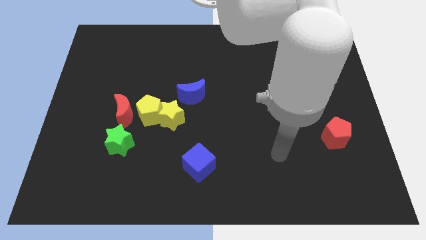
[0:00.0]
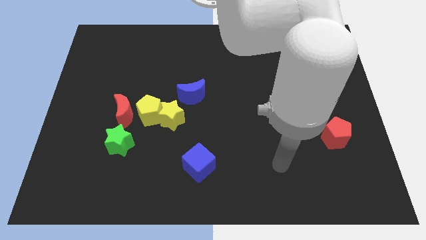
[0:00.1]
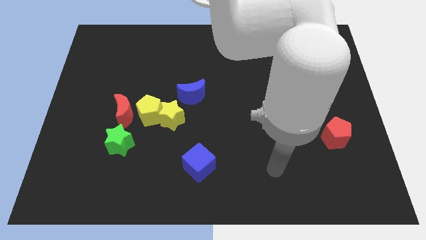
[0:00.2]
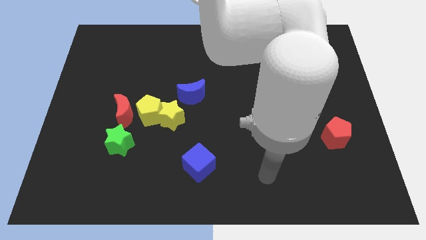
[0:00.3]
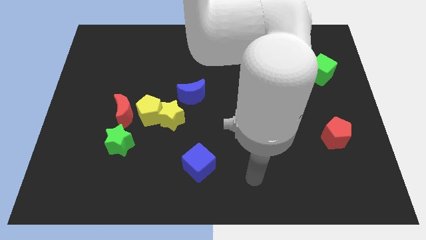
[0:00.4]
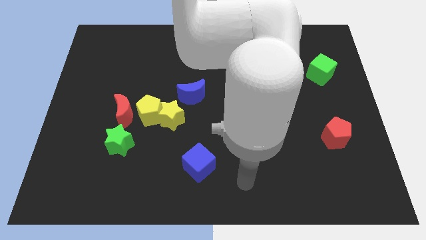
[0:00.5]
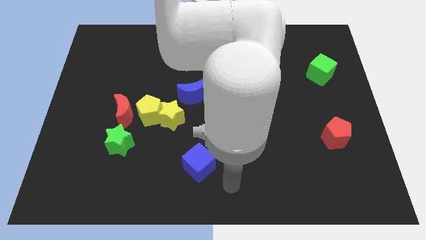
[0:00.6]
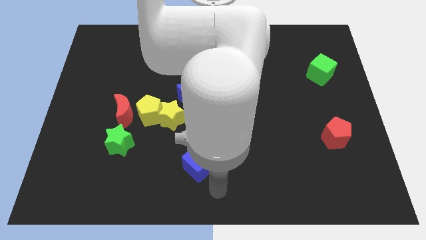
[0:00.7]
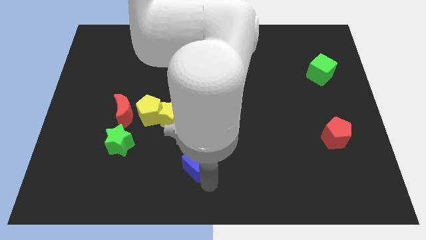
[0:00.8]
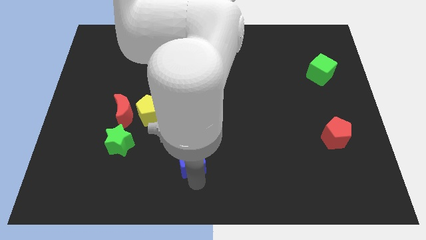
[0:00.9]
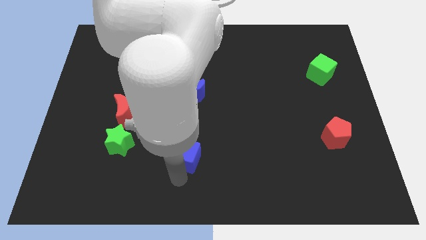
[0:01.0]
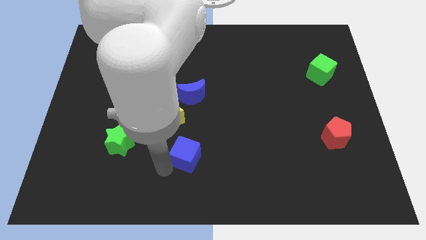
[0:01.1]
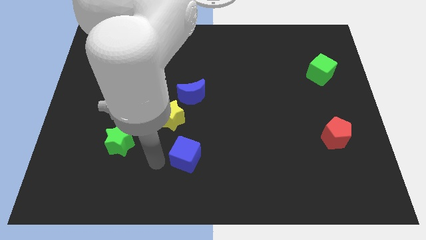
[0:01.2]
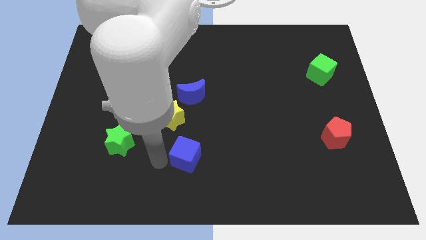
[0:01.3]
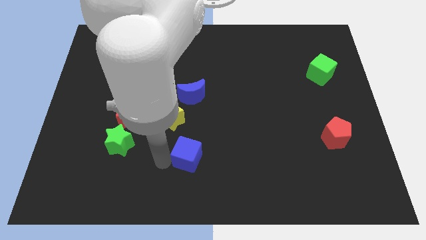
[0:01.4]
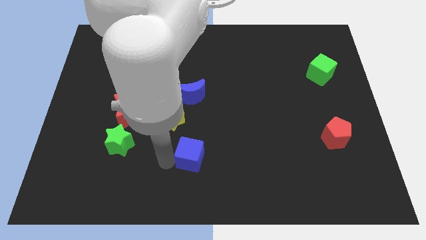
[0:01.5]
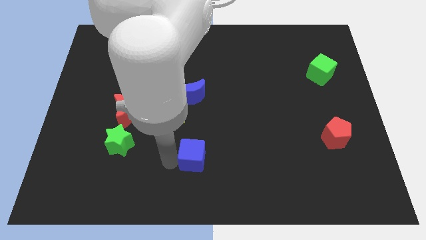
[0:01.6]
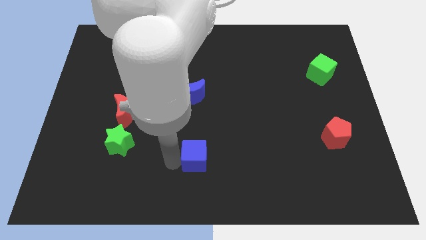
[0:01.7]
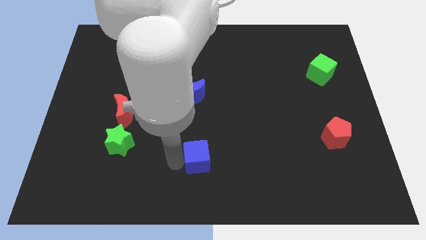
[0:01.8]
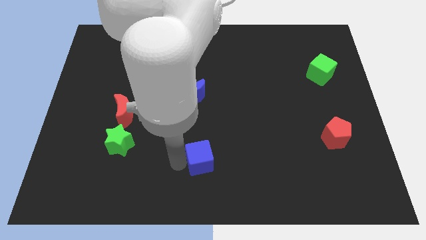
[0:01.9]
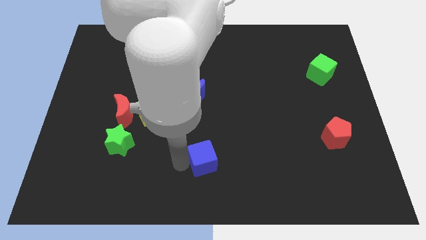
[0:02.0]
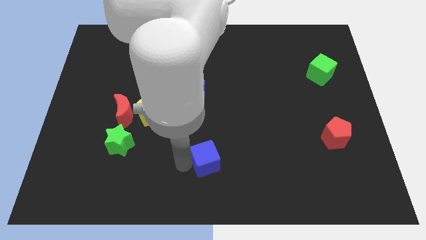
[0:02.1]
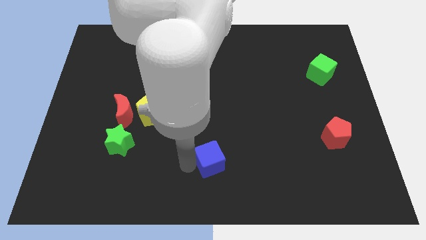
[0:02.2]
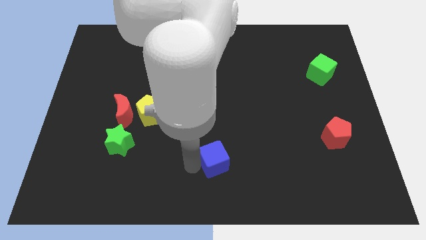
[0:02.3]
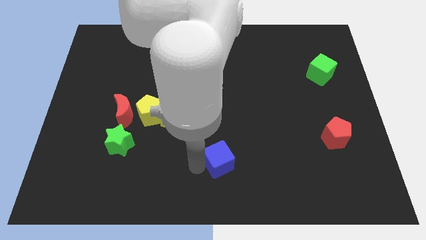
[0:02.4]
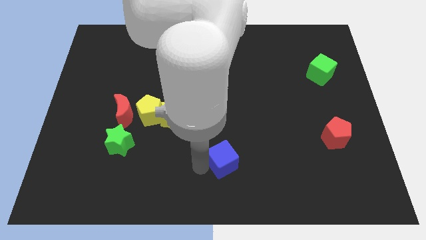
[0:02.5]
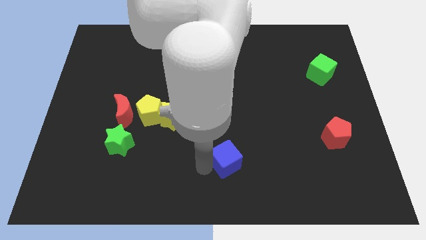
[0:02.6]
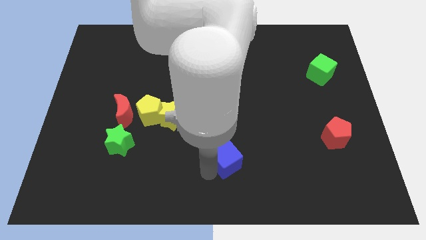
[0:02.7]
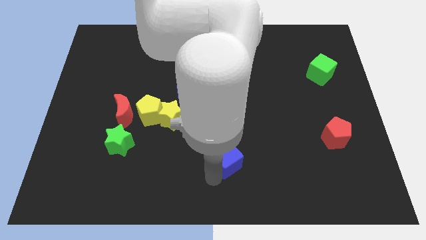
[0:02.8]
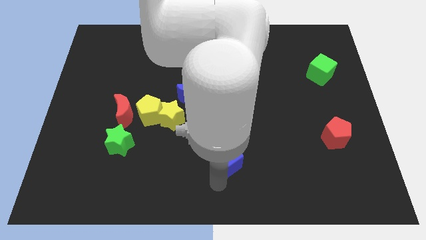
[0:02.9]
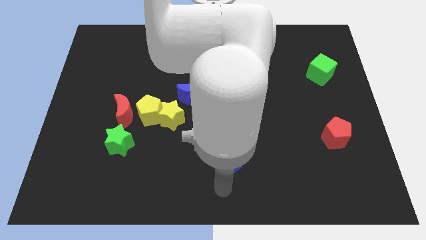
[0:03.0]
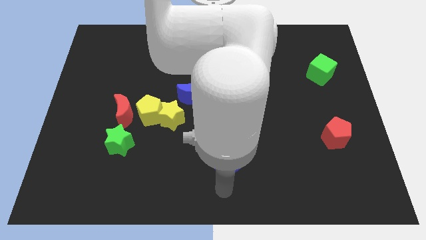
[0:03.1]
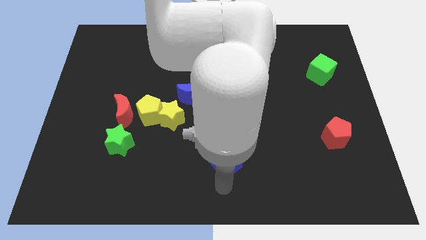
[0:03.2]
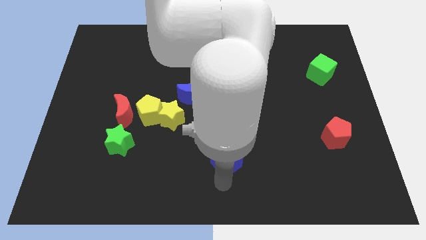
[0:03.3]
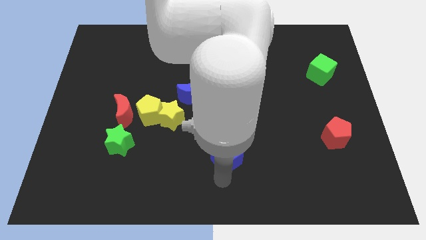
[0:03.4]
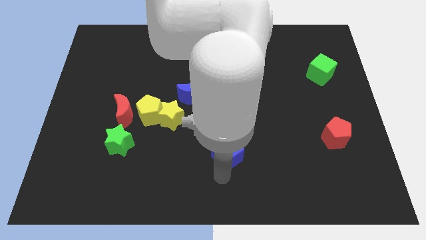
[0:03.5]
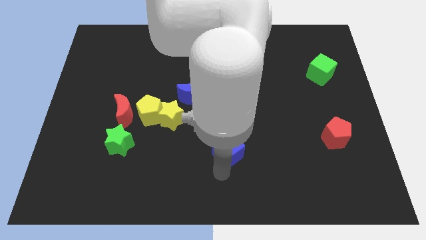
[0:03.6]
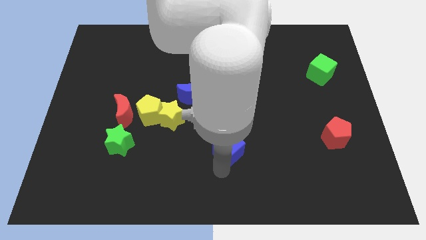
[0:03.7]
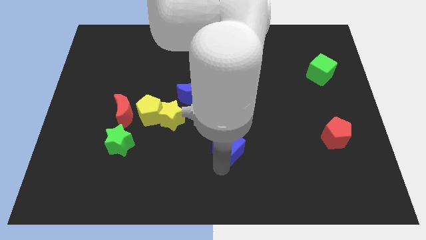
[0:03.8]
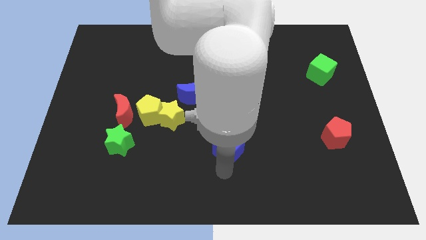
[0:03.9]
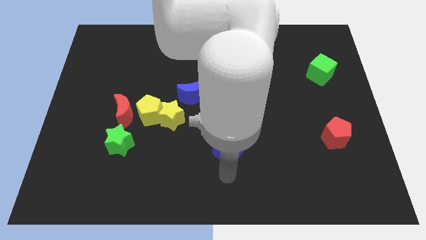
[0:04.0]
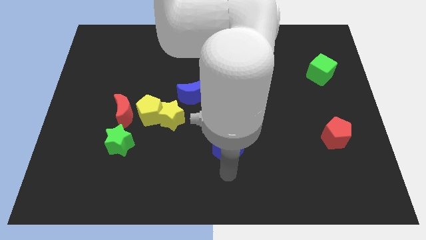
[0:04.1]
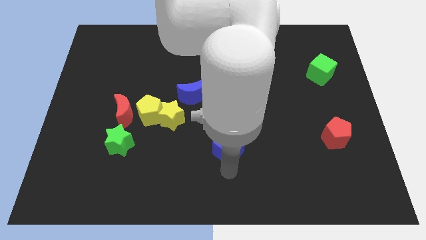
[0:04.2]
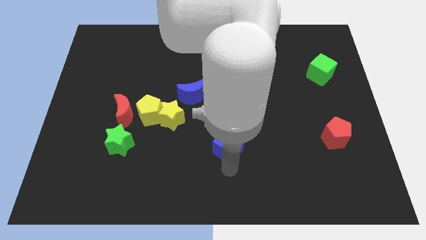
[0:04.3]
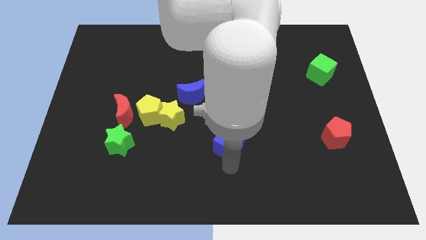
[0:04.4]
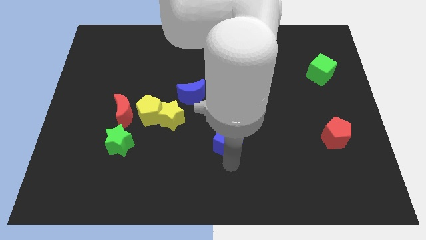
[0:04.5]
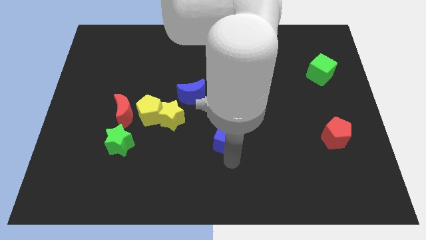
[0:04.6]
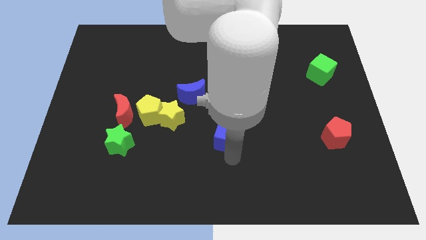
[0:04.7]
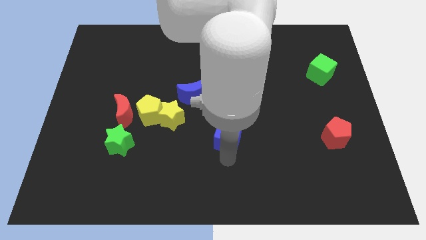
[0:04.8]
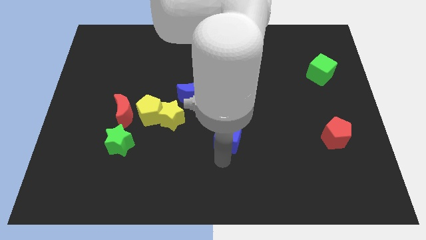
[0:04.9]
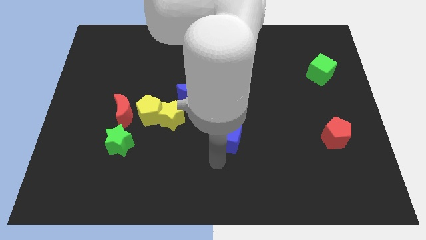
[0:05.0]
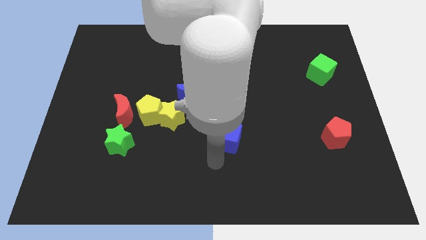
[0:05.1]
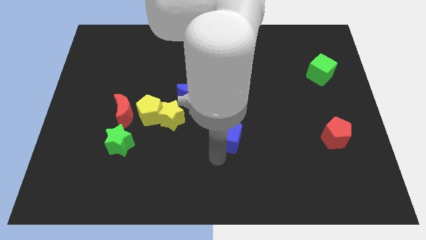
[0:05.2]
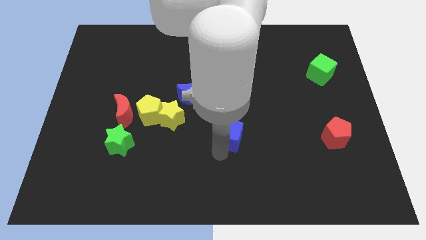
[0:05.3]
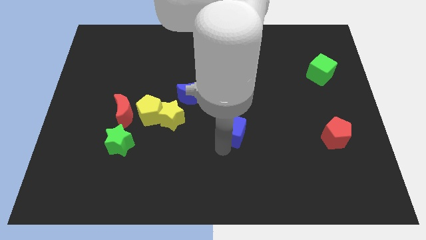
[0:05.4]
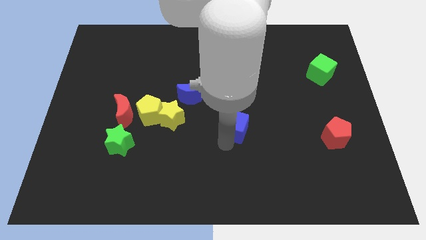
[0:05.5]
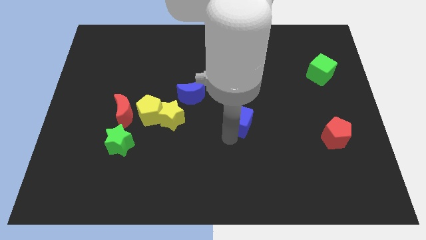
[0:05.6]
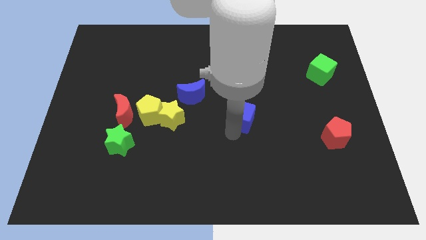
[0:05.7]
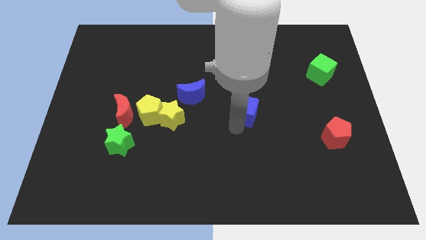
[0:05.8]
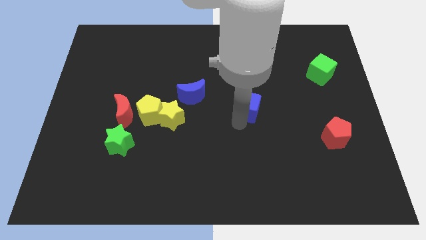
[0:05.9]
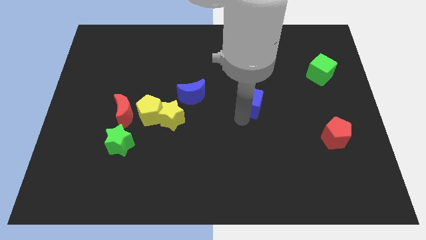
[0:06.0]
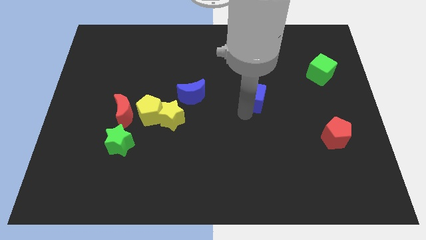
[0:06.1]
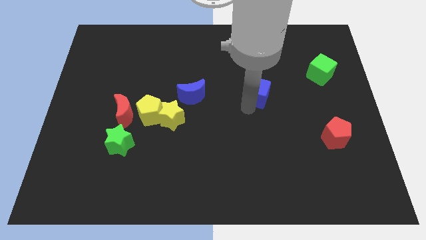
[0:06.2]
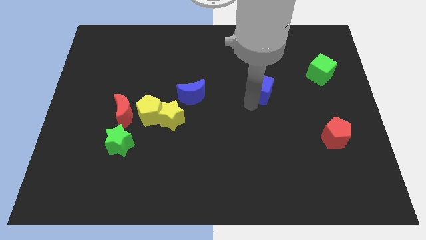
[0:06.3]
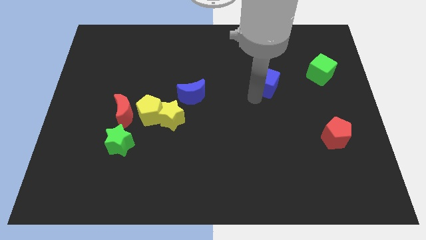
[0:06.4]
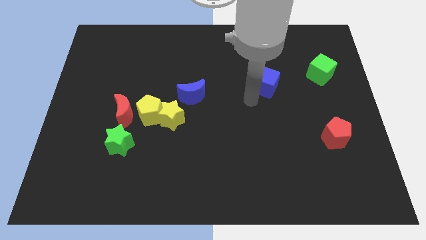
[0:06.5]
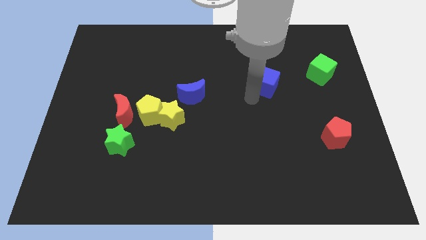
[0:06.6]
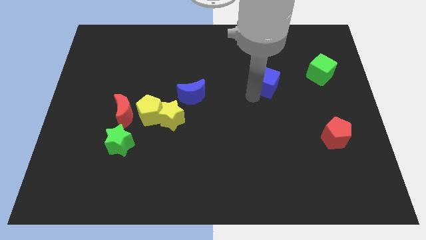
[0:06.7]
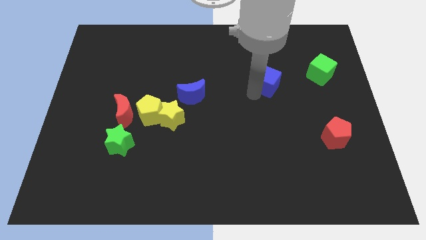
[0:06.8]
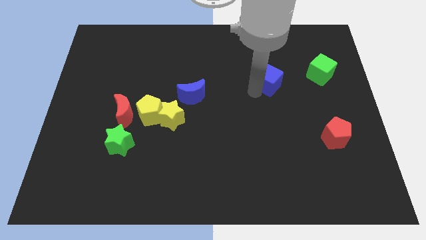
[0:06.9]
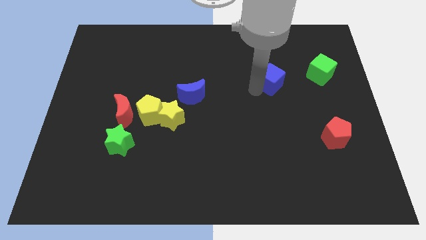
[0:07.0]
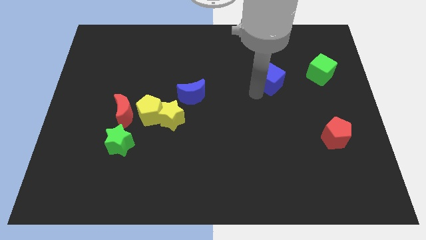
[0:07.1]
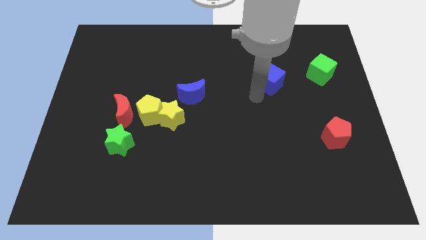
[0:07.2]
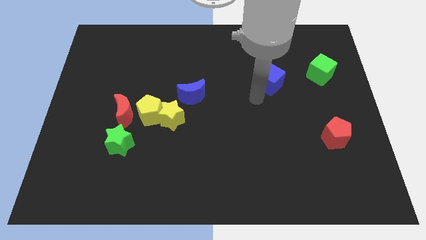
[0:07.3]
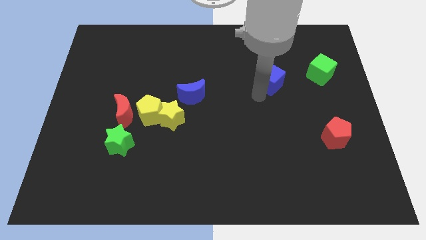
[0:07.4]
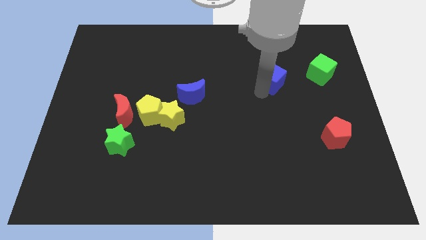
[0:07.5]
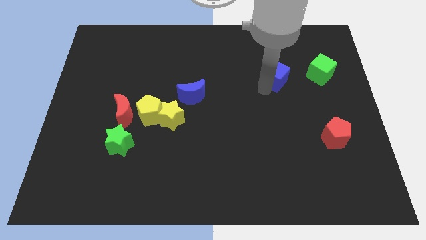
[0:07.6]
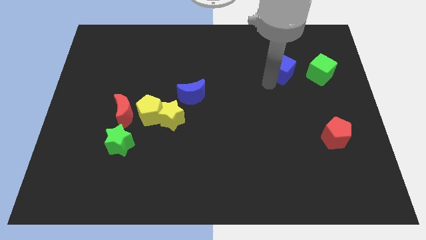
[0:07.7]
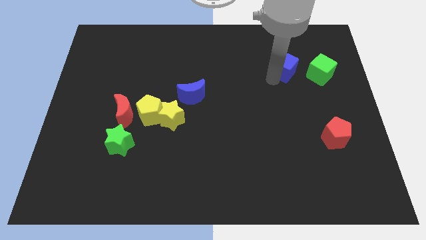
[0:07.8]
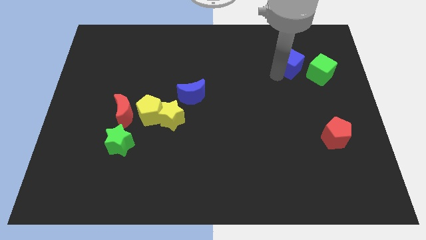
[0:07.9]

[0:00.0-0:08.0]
push the blue cube to the top left of the green cube
